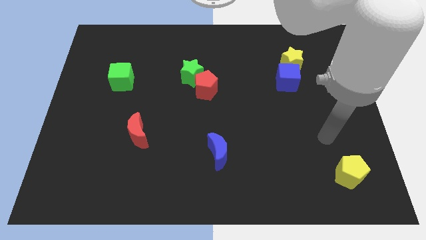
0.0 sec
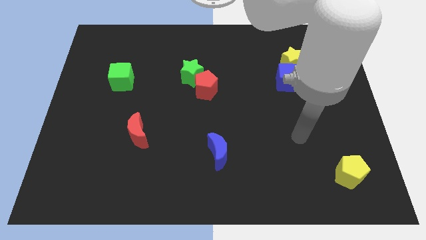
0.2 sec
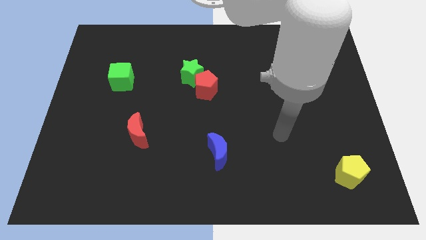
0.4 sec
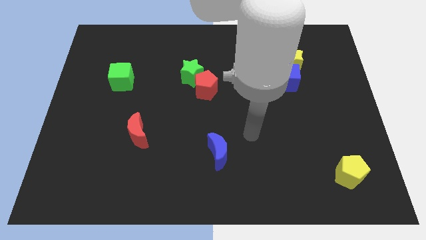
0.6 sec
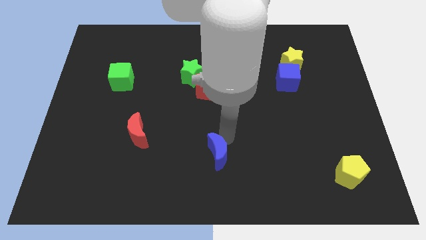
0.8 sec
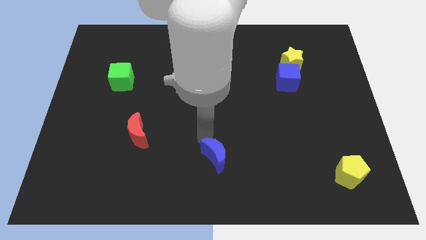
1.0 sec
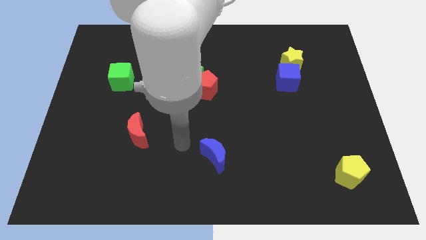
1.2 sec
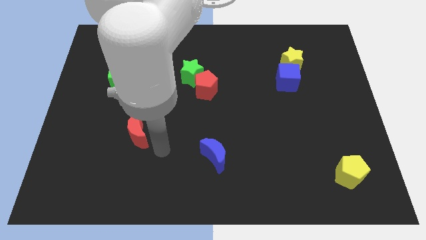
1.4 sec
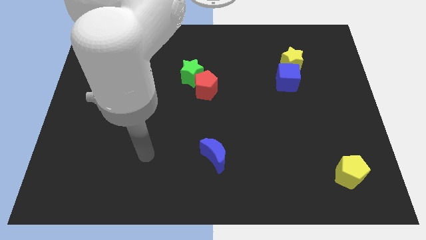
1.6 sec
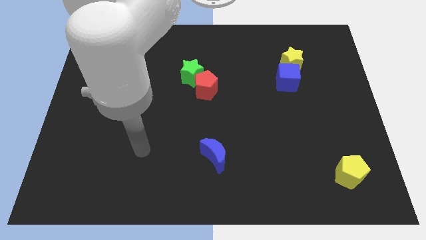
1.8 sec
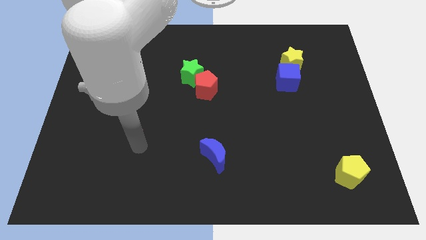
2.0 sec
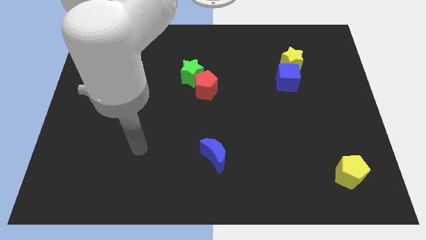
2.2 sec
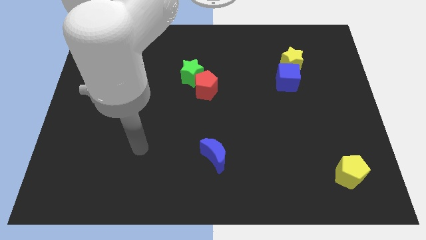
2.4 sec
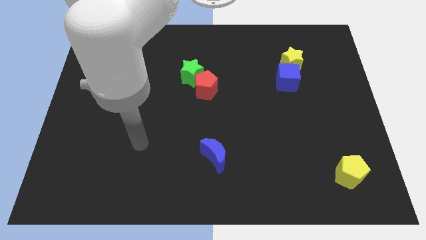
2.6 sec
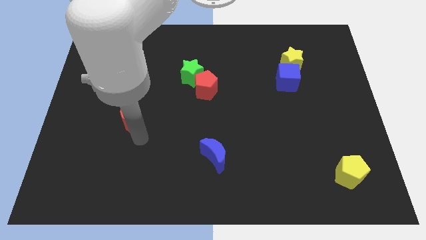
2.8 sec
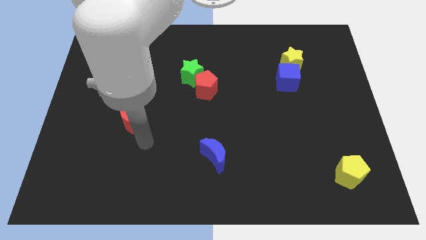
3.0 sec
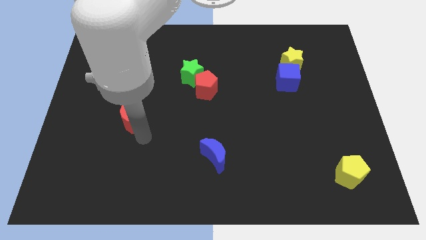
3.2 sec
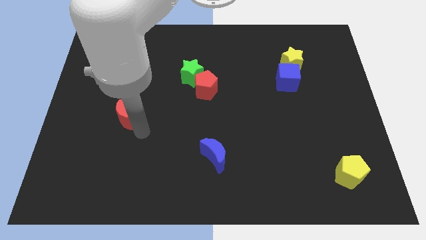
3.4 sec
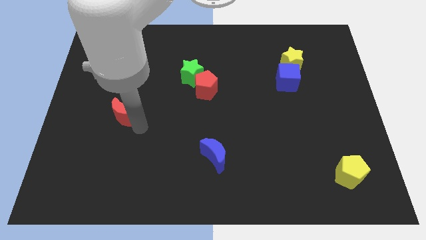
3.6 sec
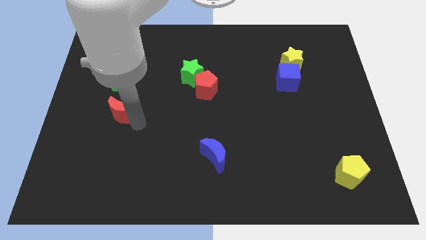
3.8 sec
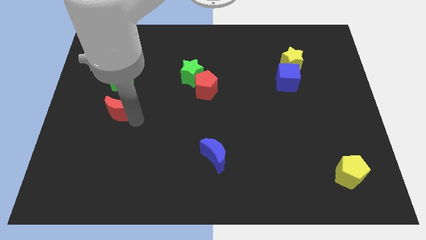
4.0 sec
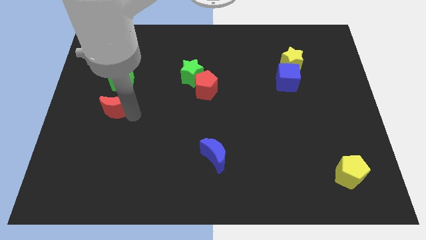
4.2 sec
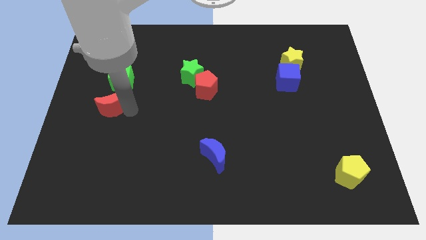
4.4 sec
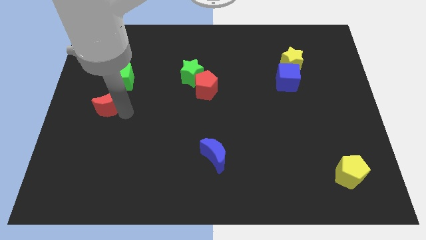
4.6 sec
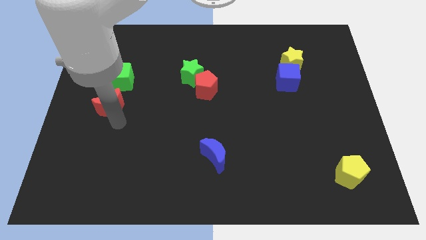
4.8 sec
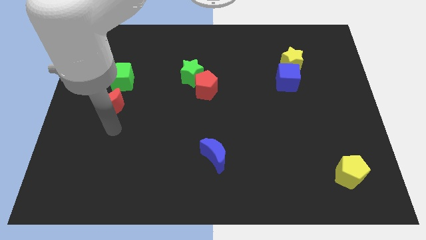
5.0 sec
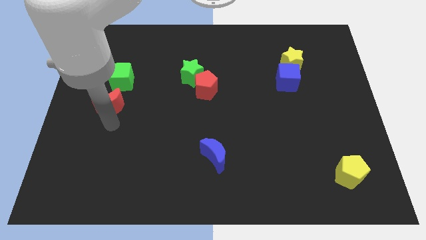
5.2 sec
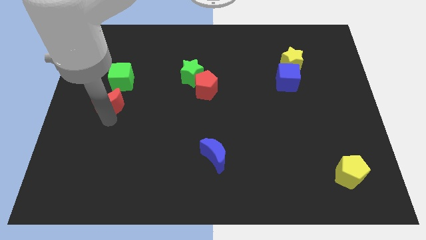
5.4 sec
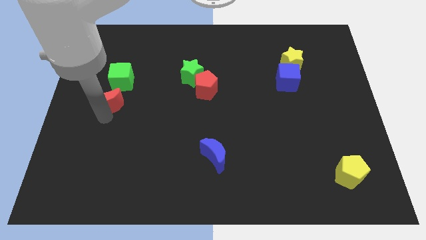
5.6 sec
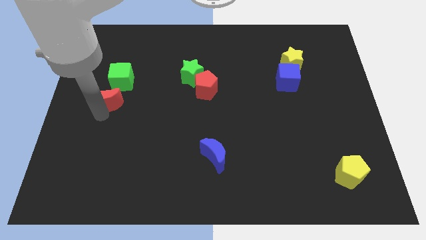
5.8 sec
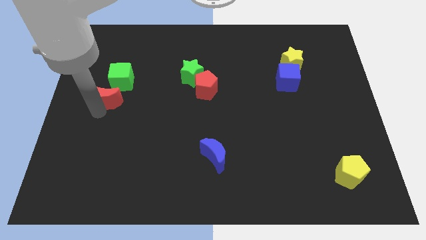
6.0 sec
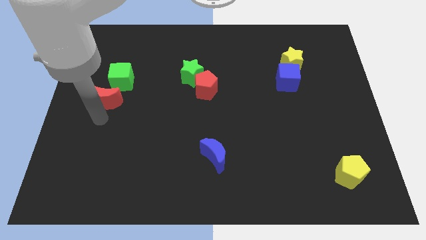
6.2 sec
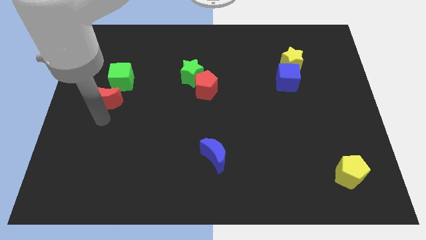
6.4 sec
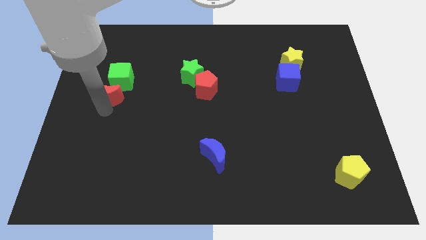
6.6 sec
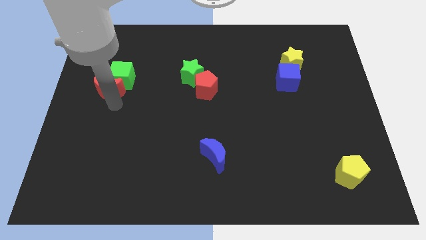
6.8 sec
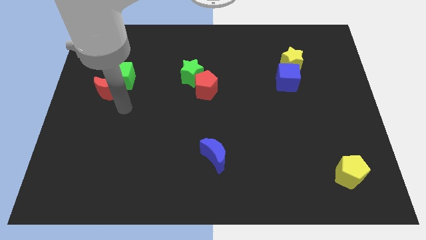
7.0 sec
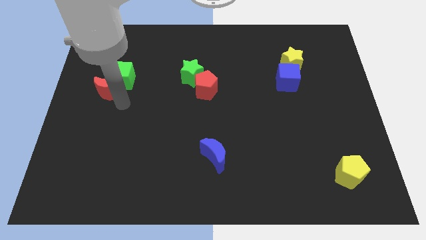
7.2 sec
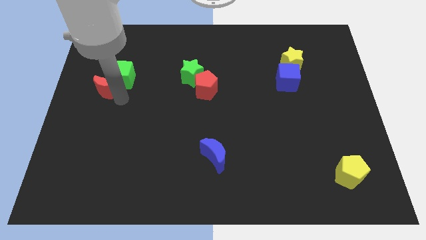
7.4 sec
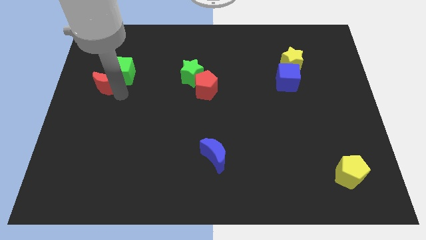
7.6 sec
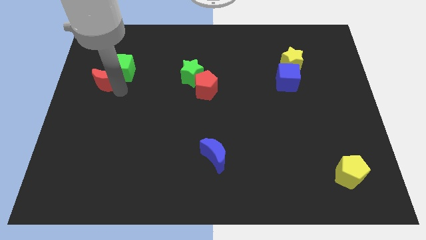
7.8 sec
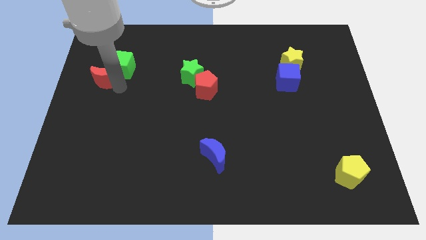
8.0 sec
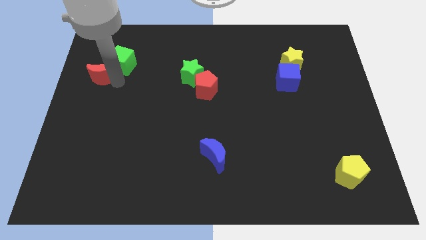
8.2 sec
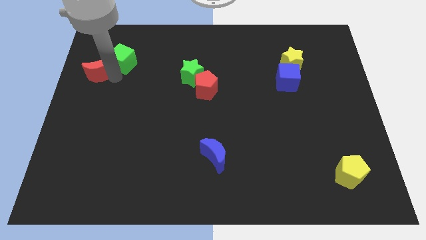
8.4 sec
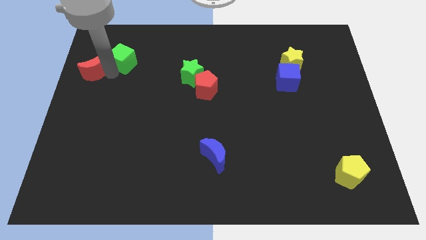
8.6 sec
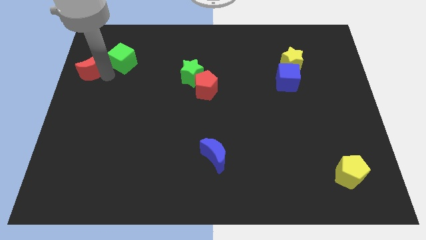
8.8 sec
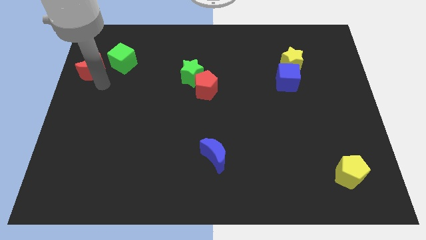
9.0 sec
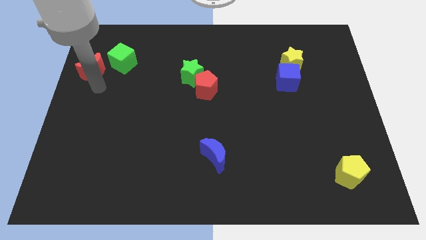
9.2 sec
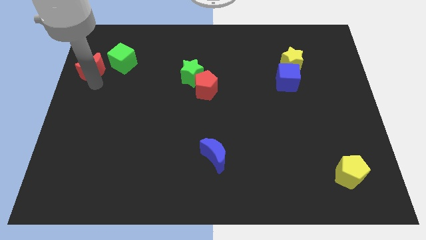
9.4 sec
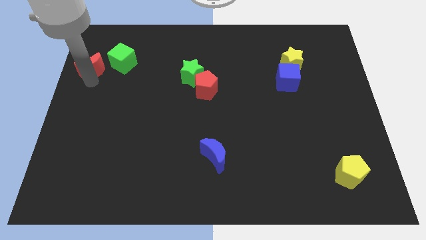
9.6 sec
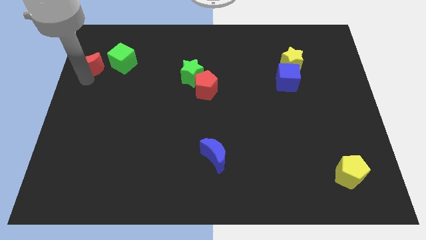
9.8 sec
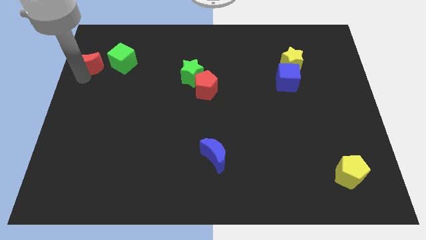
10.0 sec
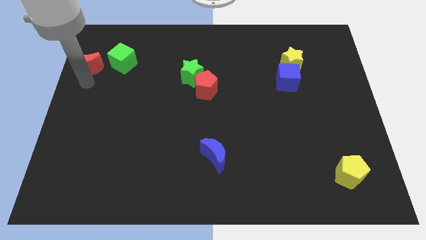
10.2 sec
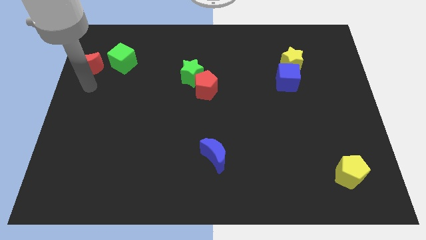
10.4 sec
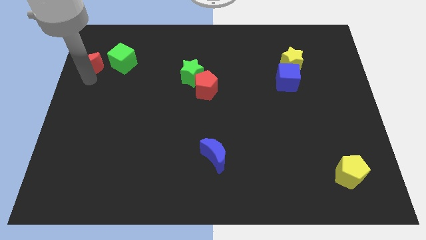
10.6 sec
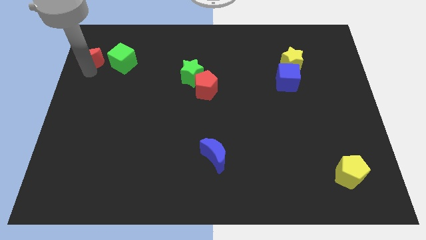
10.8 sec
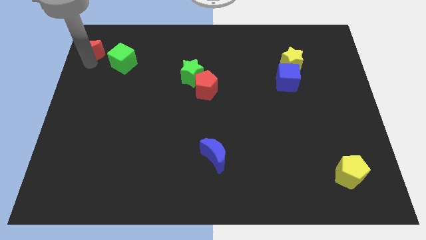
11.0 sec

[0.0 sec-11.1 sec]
push the red moon to the top left

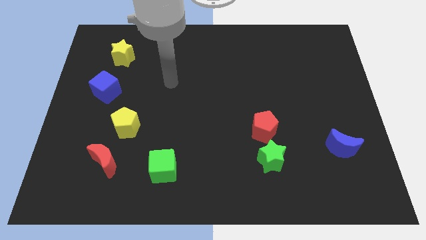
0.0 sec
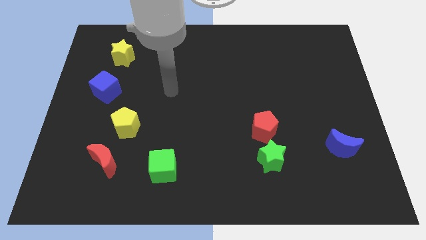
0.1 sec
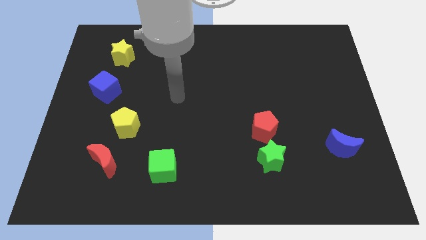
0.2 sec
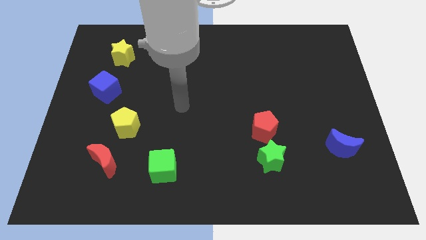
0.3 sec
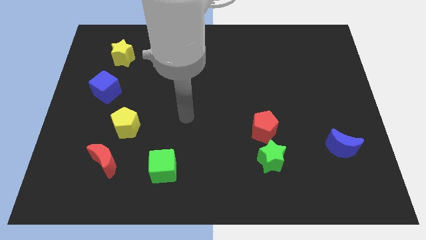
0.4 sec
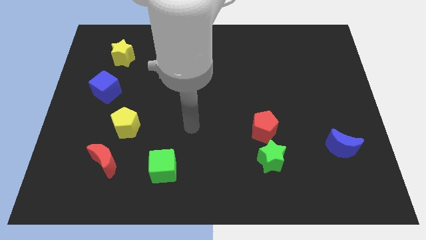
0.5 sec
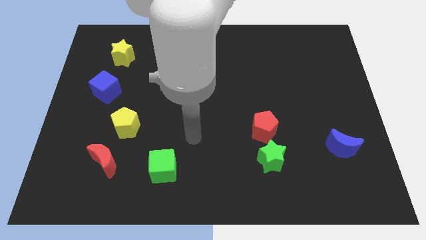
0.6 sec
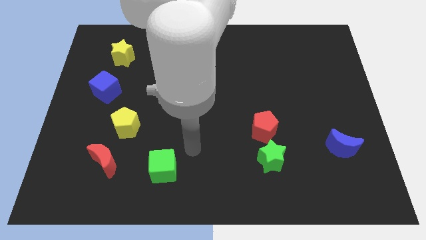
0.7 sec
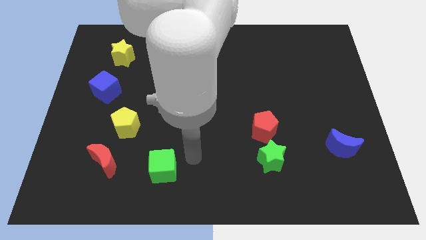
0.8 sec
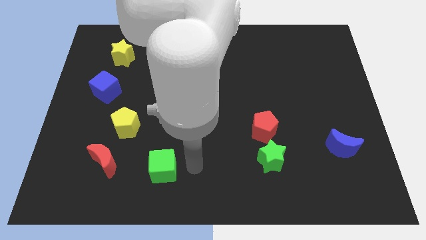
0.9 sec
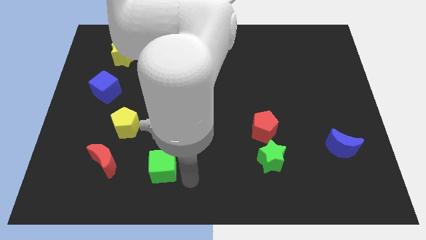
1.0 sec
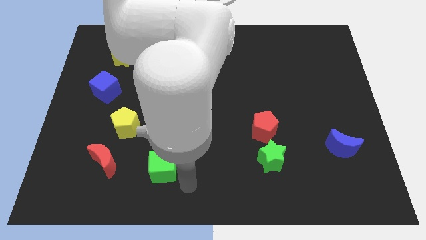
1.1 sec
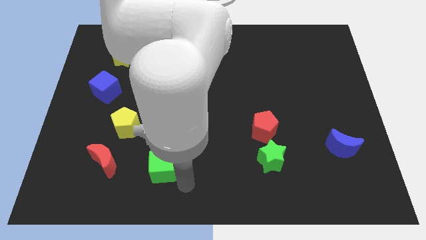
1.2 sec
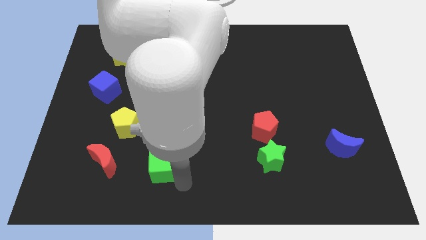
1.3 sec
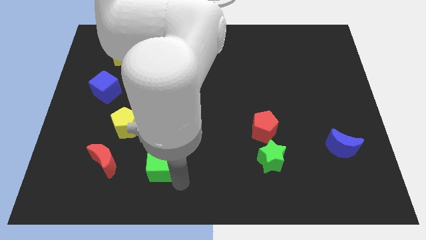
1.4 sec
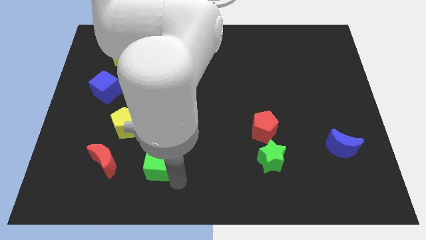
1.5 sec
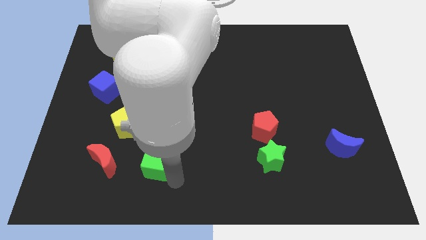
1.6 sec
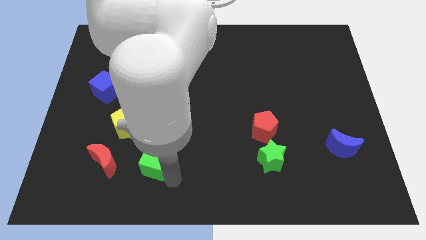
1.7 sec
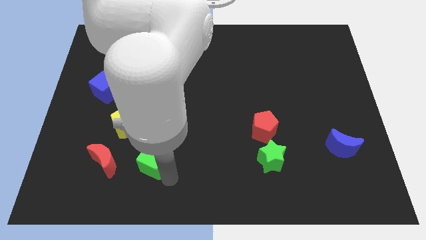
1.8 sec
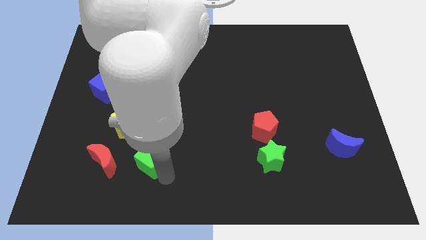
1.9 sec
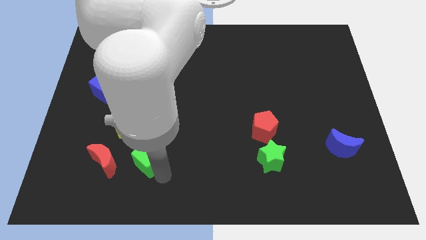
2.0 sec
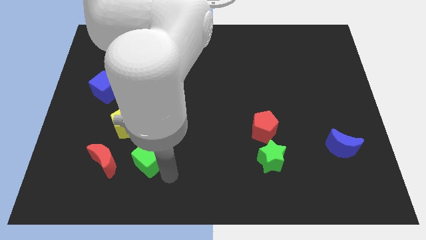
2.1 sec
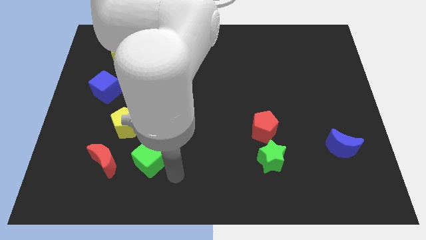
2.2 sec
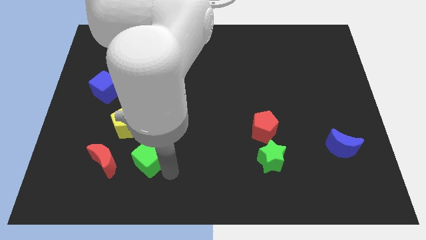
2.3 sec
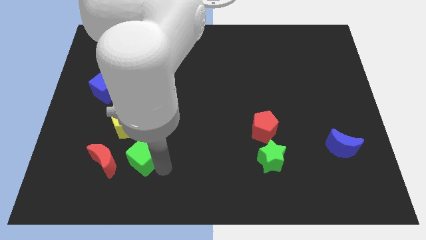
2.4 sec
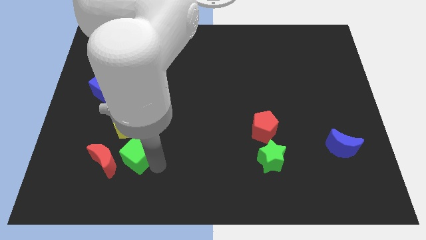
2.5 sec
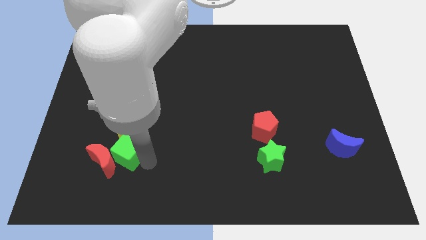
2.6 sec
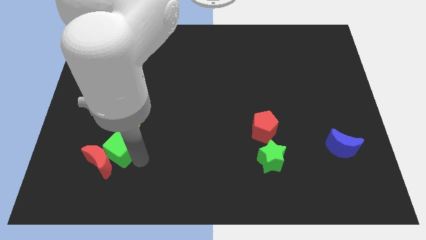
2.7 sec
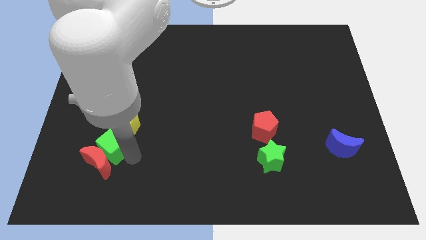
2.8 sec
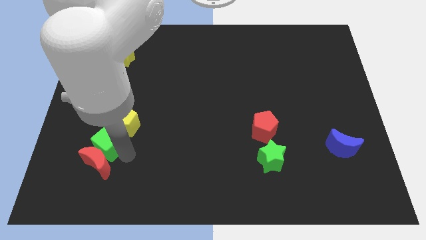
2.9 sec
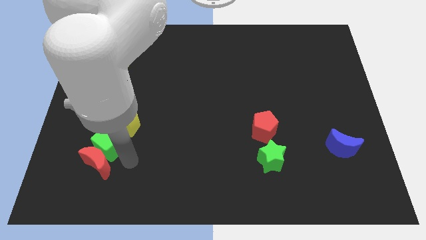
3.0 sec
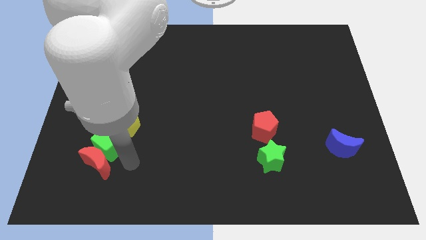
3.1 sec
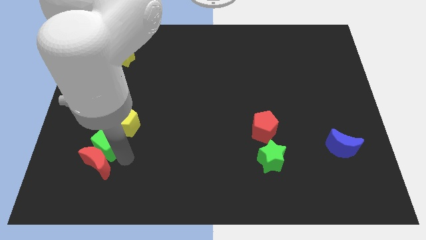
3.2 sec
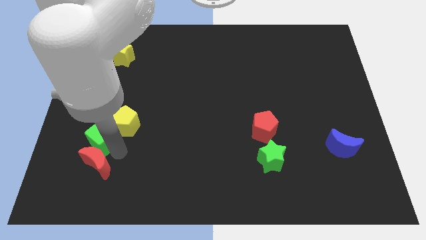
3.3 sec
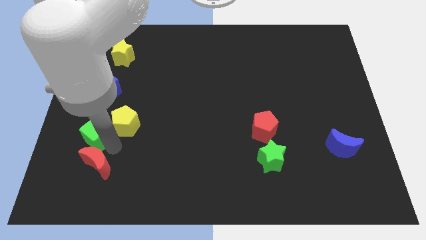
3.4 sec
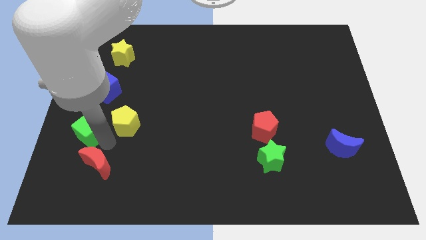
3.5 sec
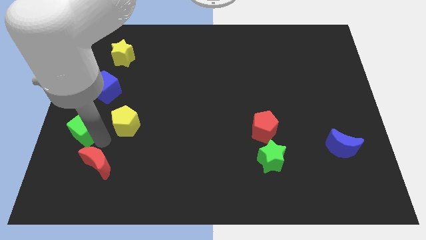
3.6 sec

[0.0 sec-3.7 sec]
move the green cube to the center left
